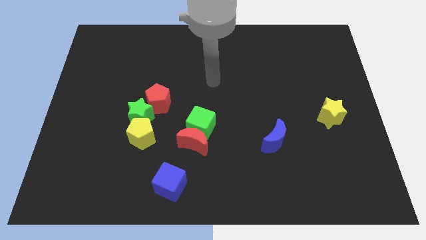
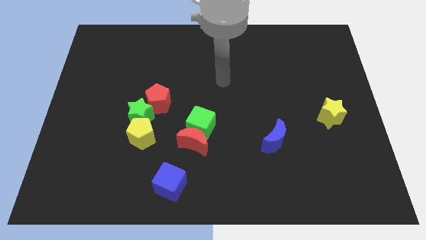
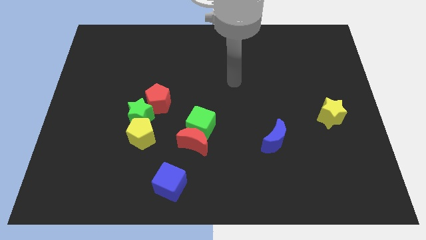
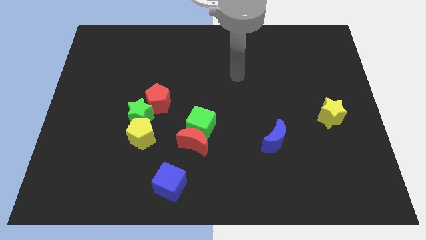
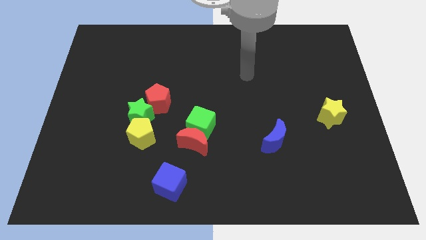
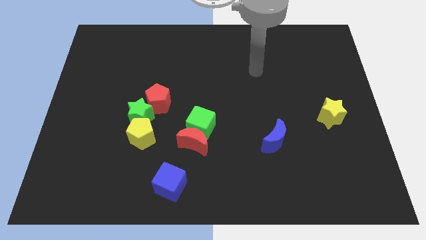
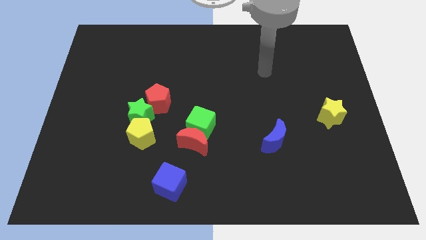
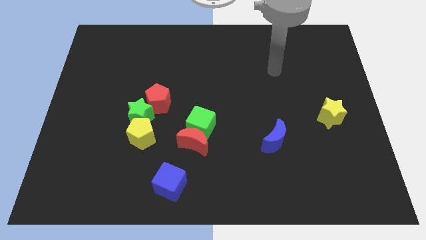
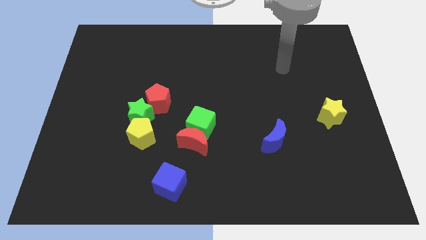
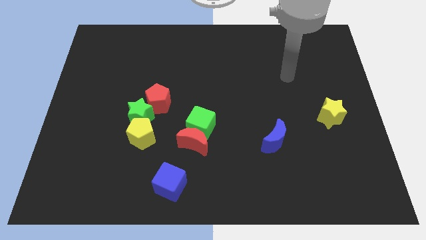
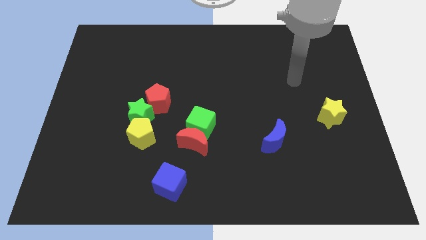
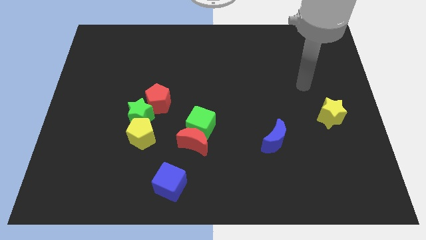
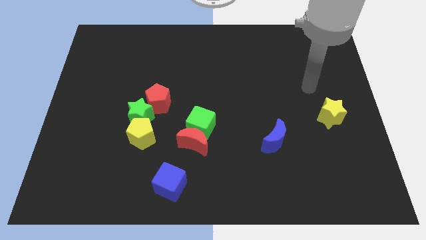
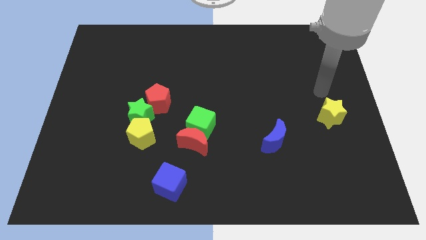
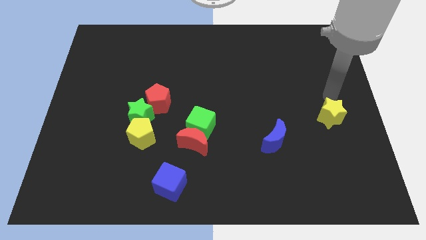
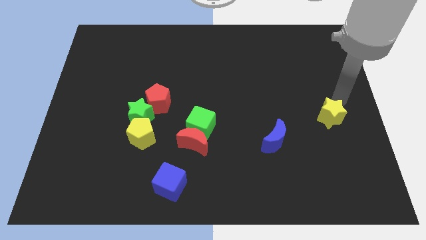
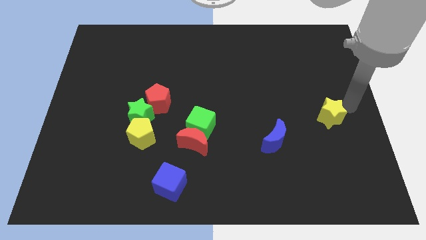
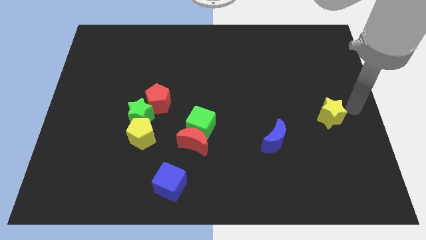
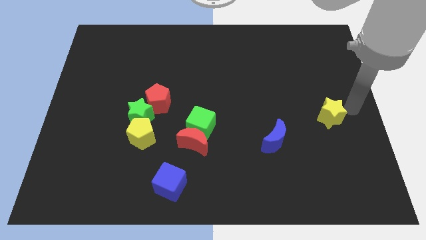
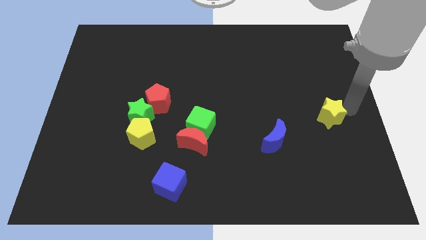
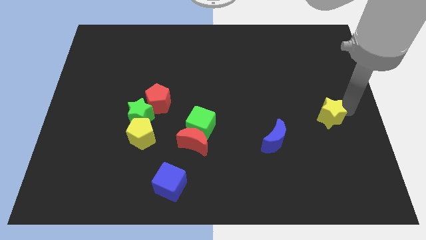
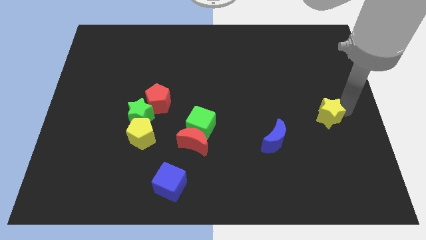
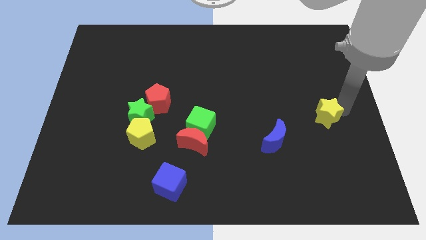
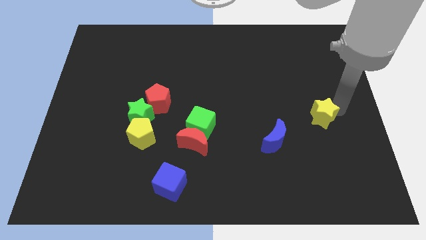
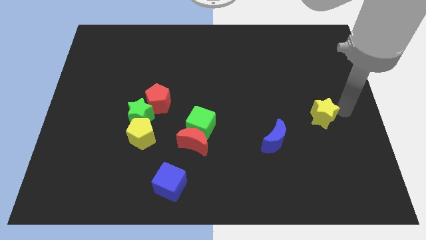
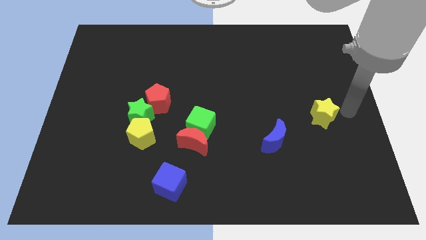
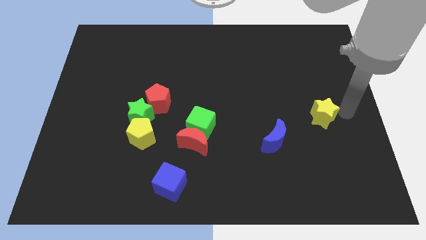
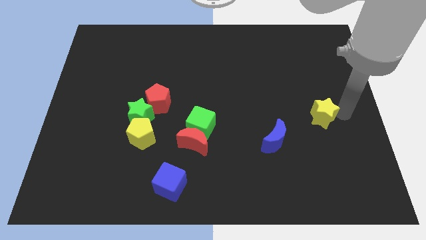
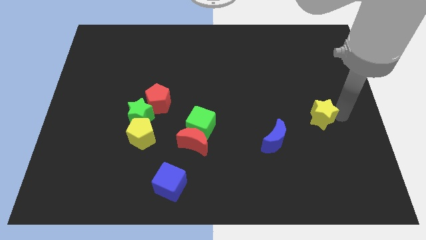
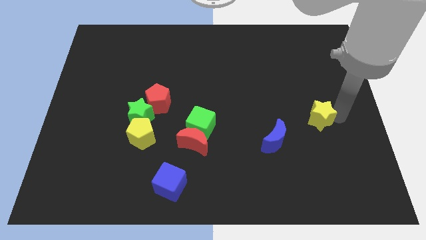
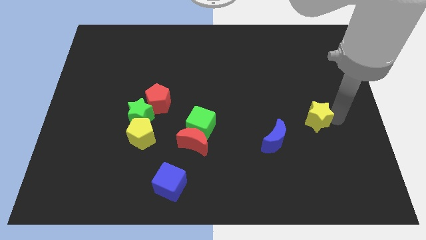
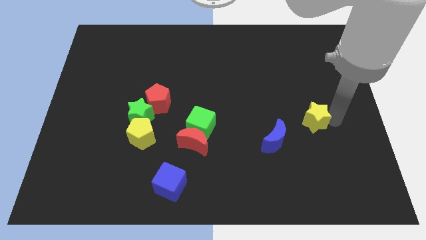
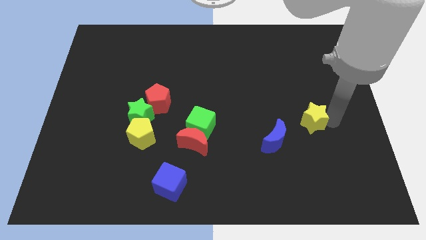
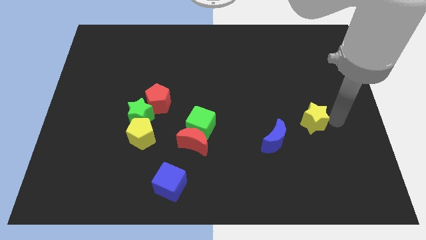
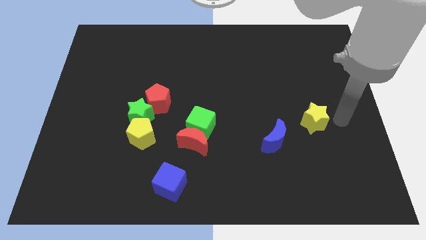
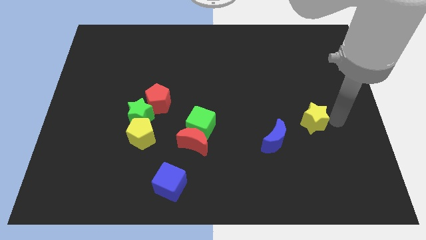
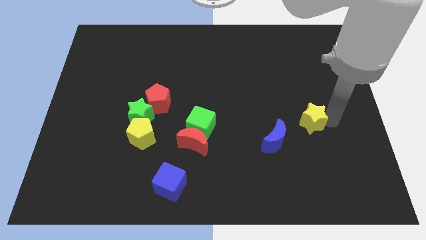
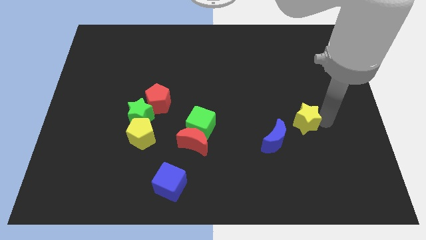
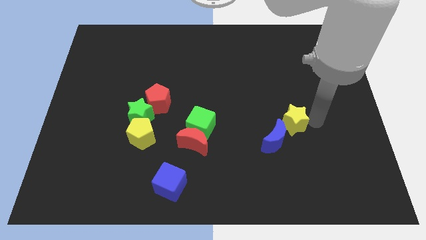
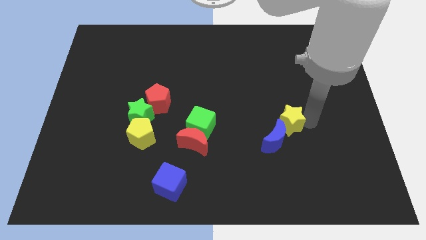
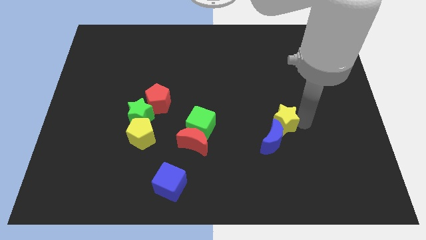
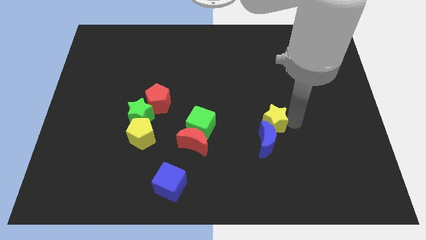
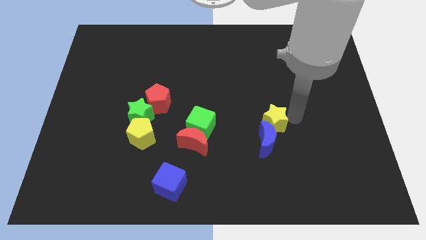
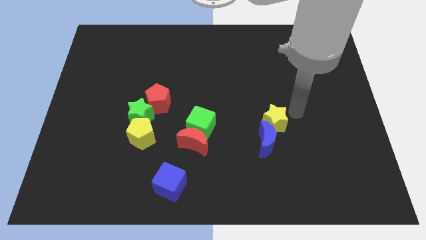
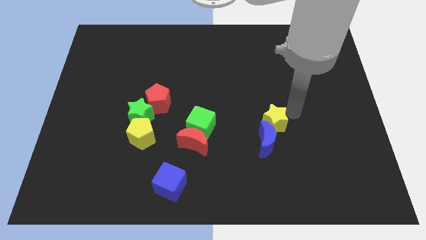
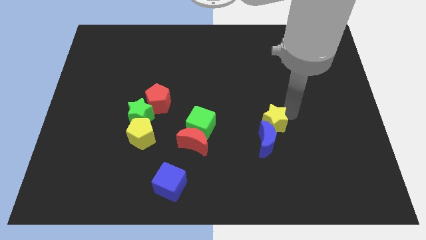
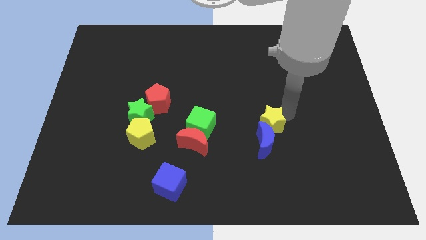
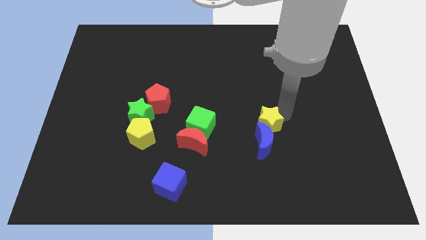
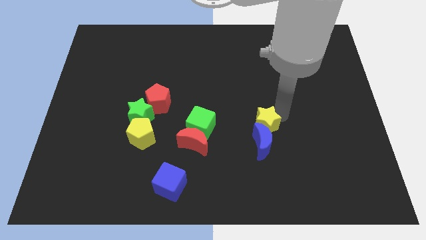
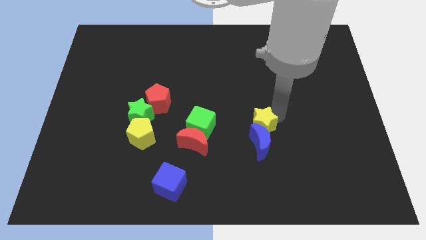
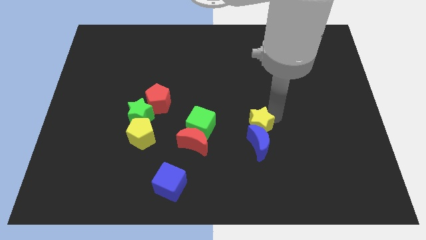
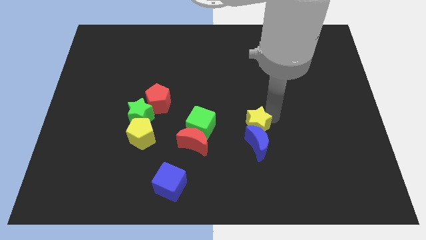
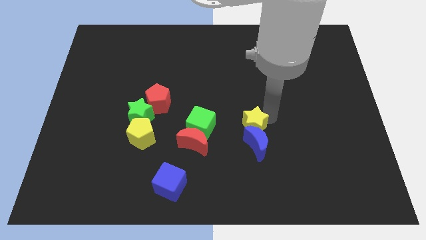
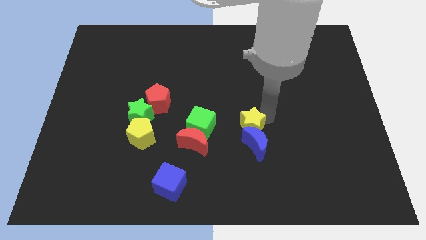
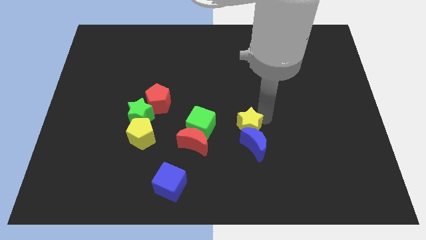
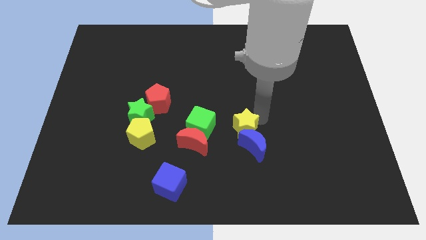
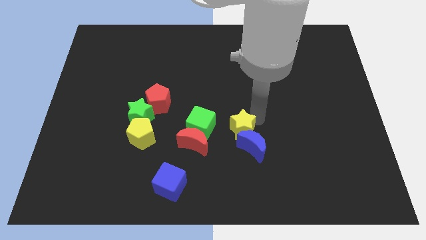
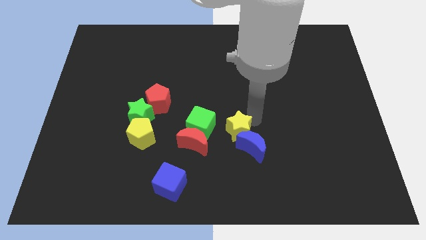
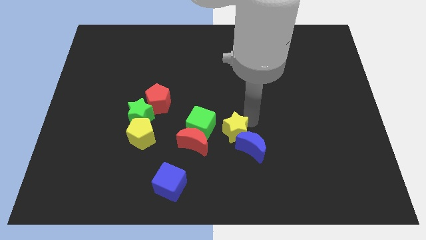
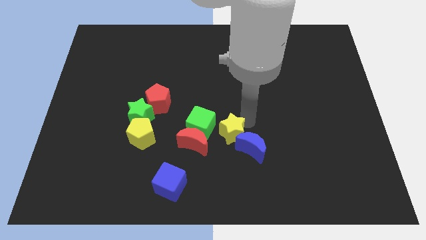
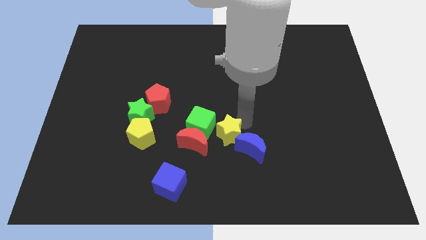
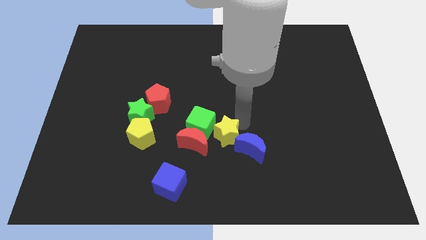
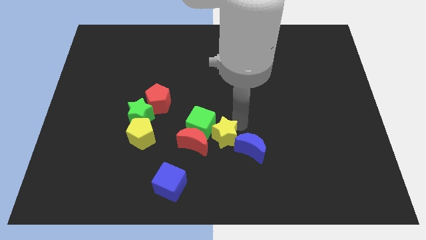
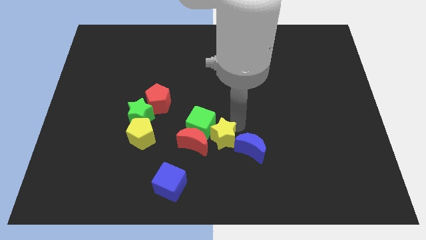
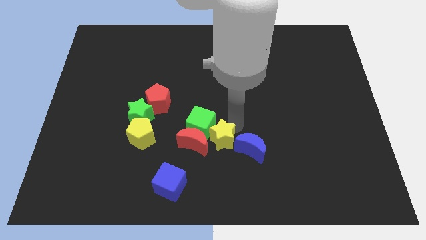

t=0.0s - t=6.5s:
push the yellow star to the bottom of the green cube

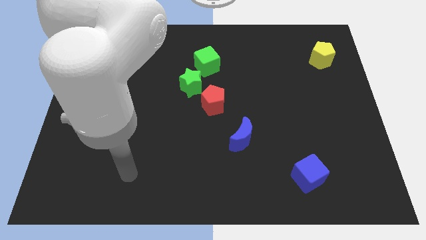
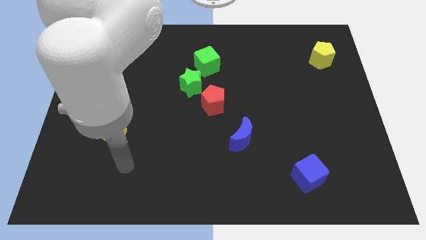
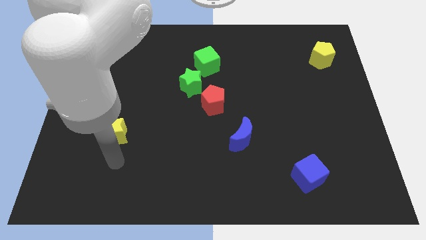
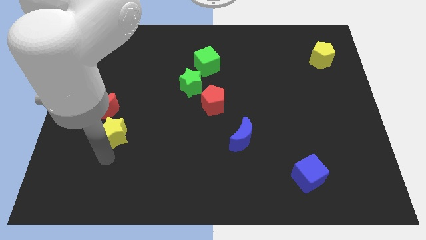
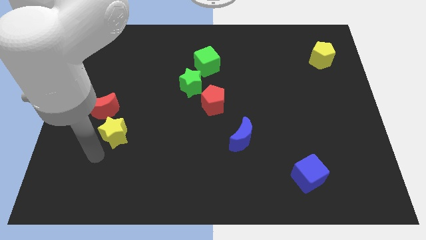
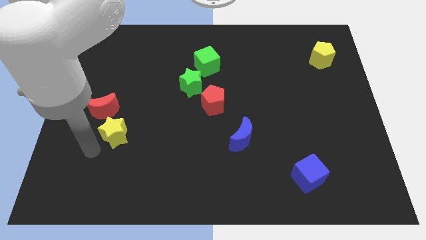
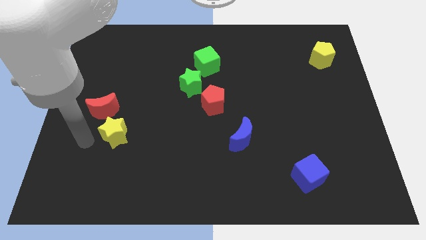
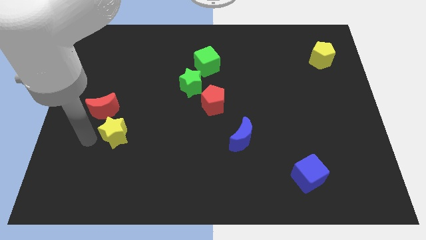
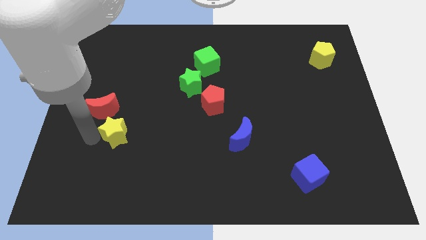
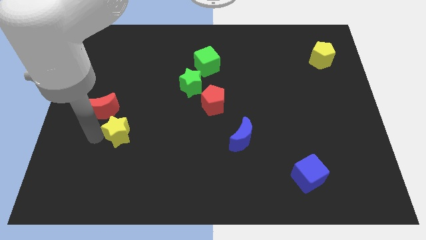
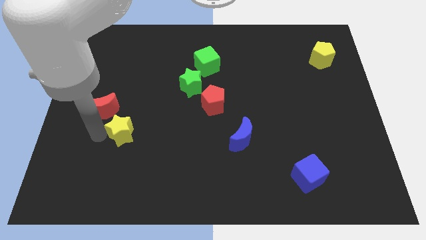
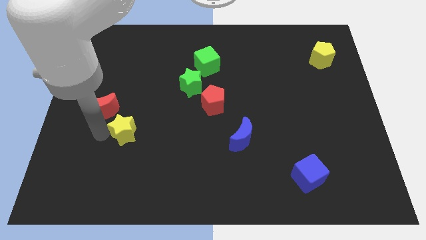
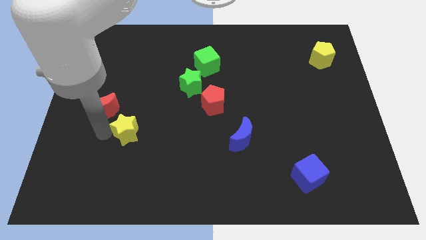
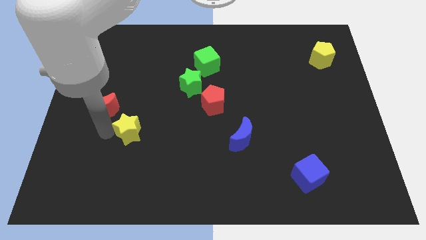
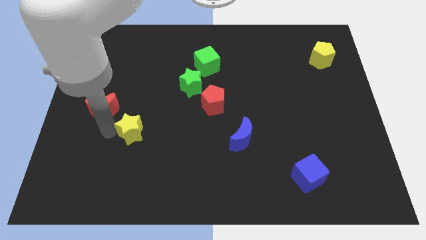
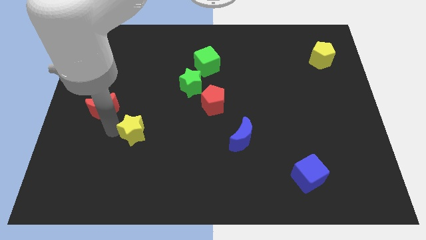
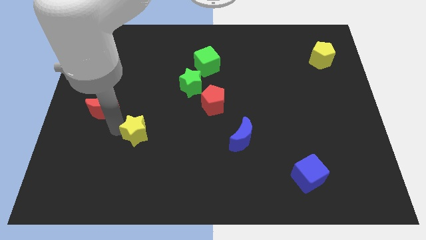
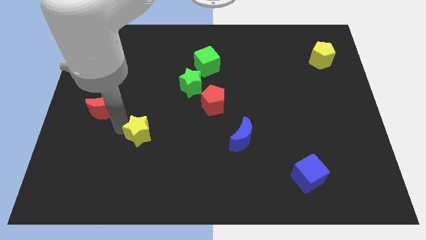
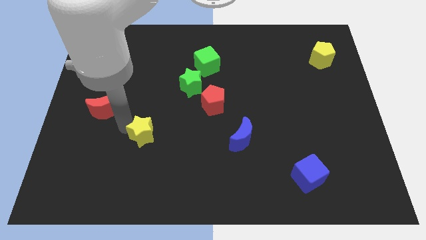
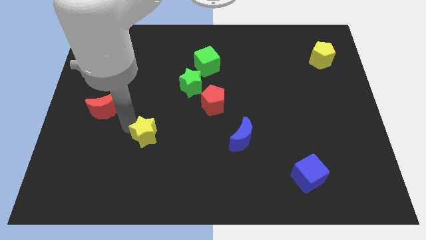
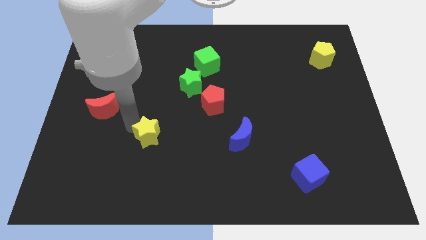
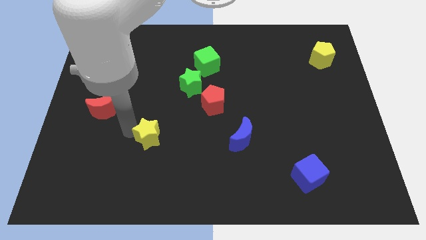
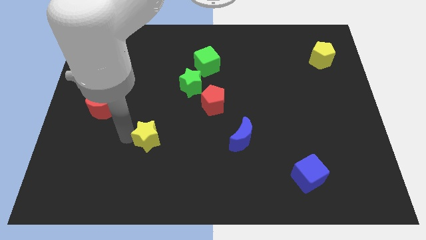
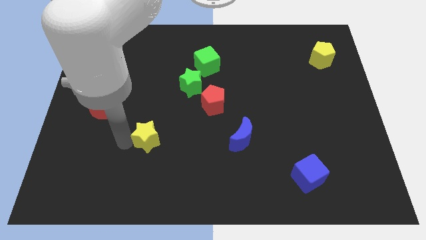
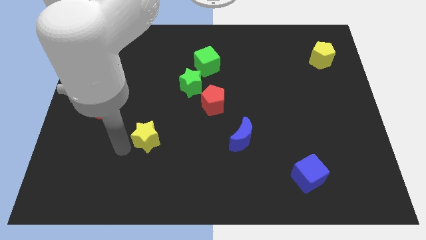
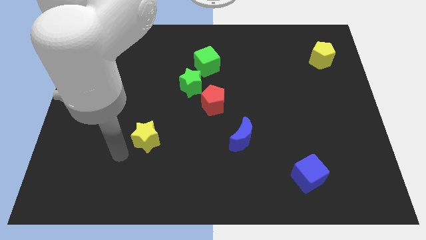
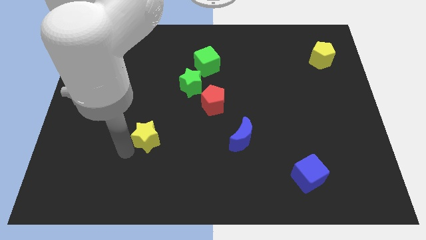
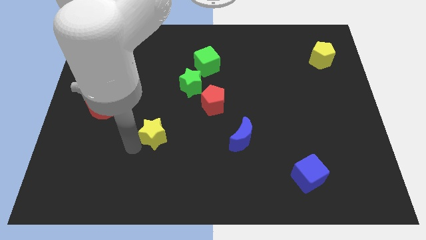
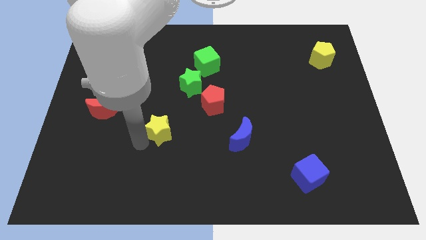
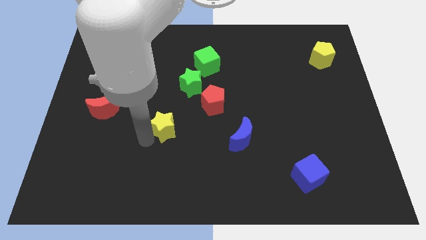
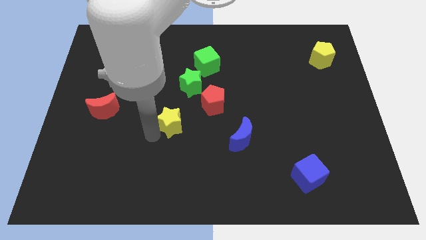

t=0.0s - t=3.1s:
put the yellow star below the green star
